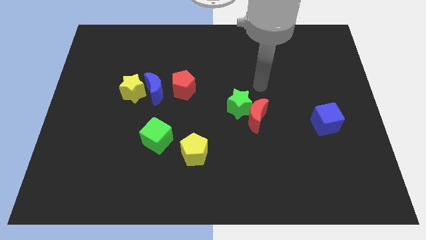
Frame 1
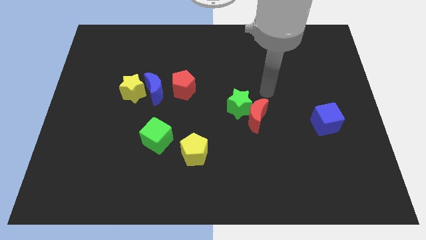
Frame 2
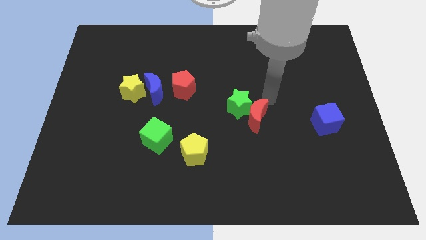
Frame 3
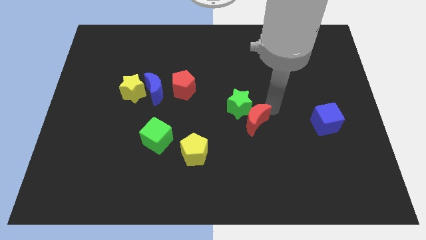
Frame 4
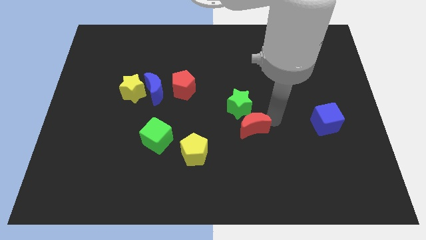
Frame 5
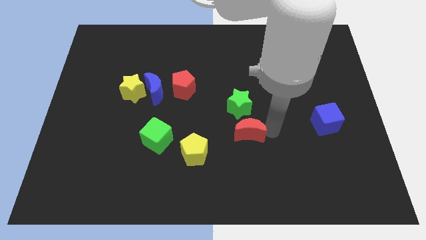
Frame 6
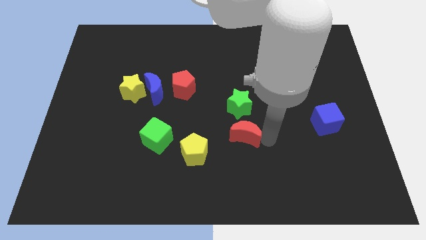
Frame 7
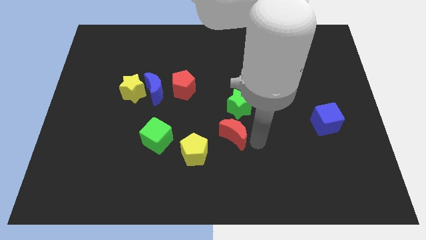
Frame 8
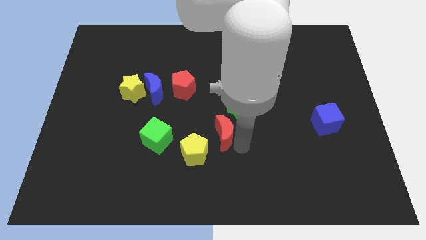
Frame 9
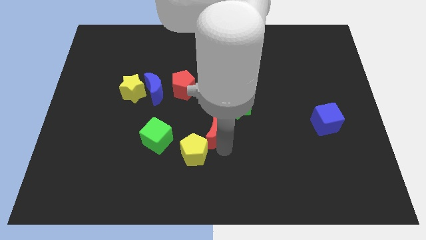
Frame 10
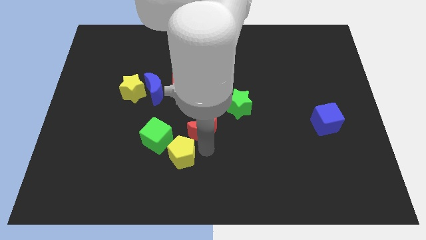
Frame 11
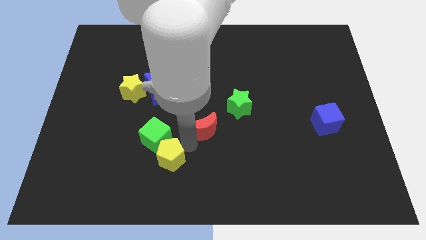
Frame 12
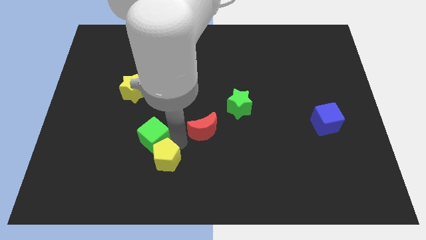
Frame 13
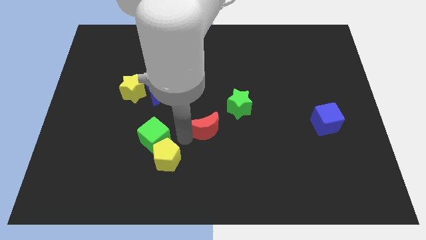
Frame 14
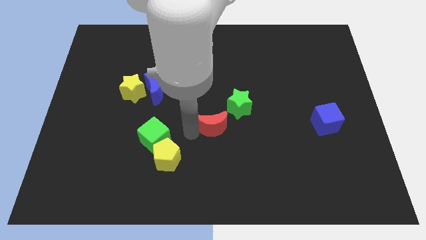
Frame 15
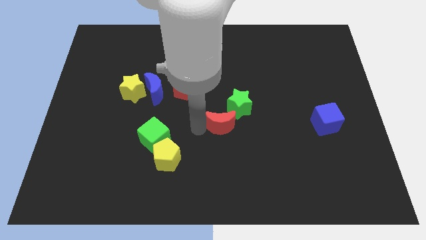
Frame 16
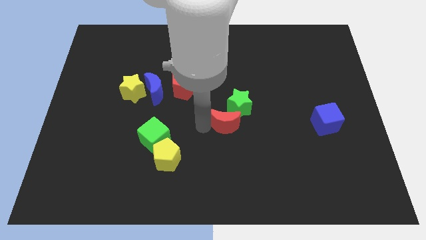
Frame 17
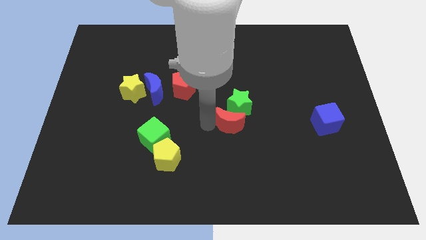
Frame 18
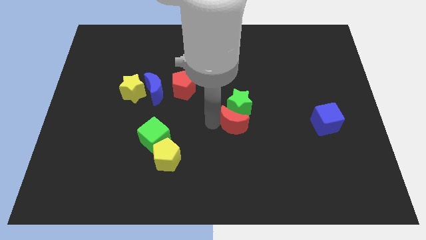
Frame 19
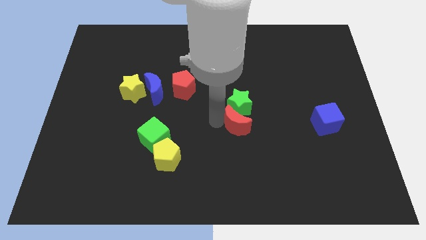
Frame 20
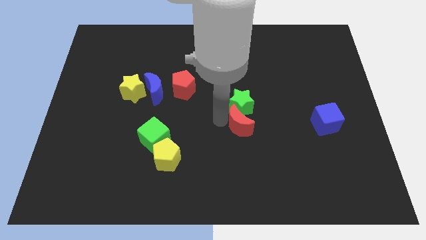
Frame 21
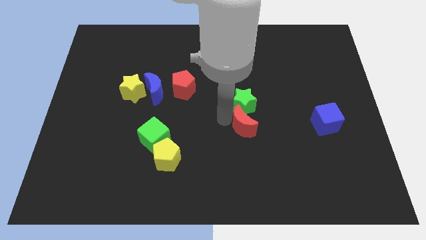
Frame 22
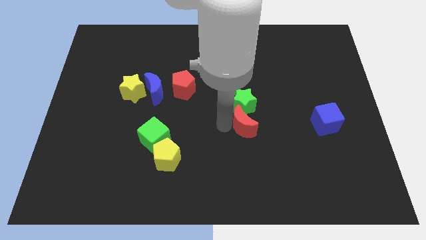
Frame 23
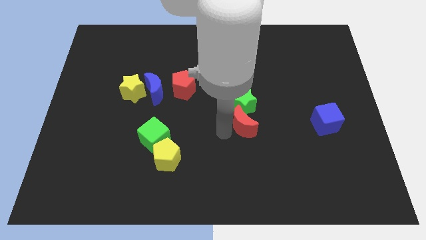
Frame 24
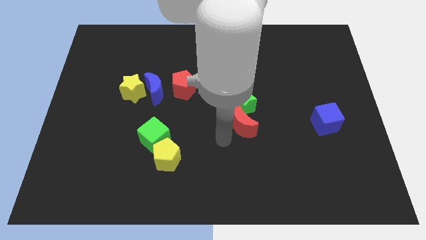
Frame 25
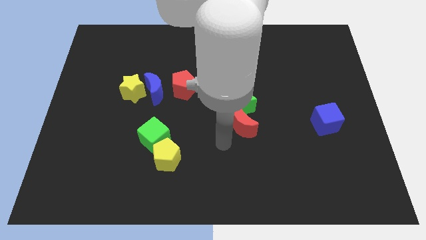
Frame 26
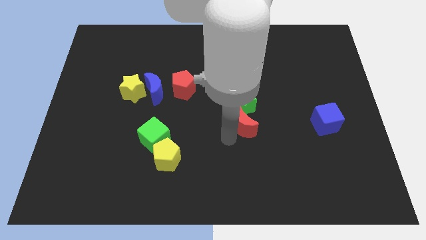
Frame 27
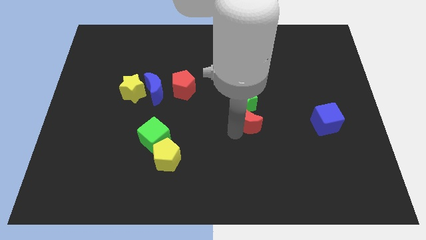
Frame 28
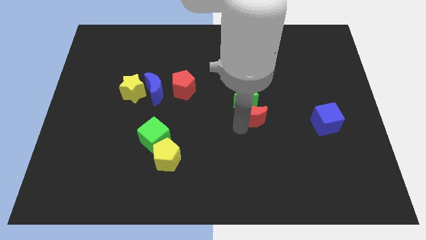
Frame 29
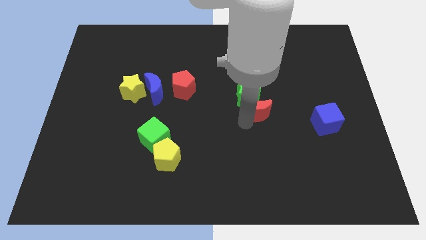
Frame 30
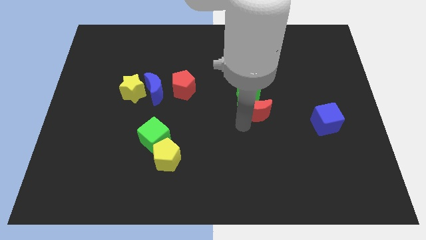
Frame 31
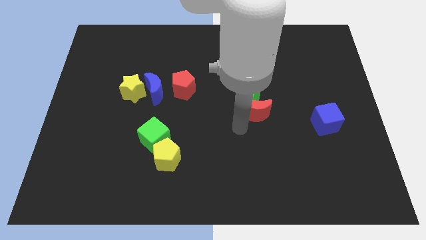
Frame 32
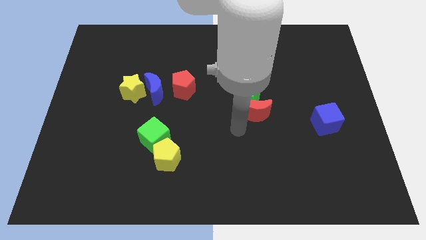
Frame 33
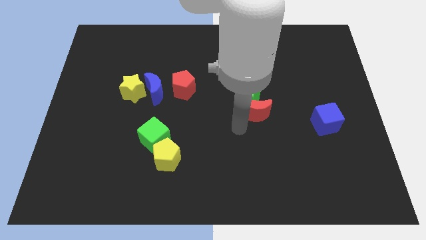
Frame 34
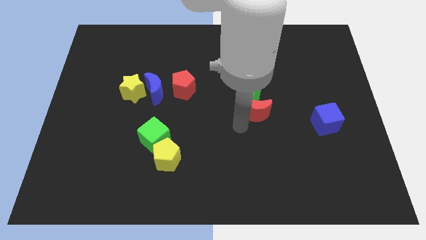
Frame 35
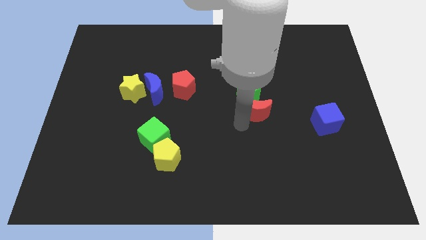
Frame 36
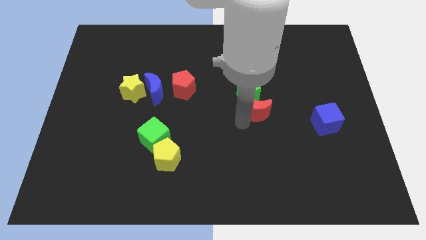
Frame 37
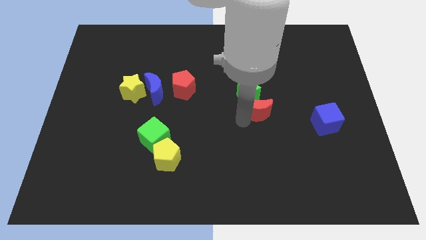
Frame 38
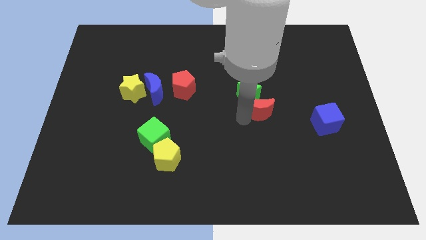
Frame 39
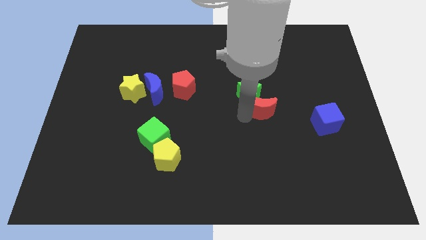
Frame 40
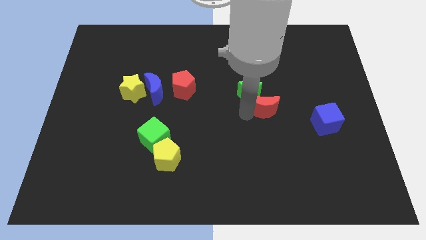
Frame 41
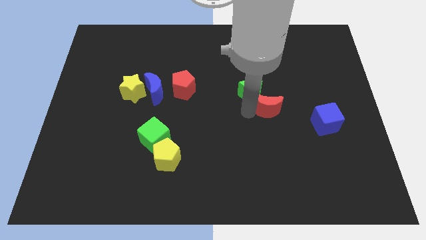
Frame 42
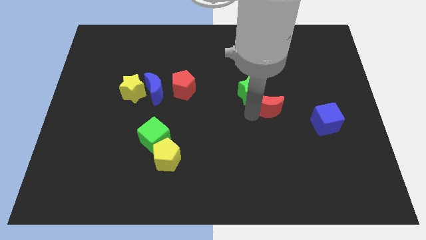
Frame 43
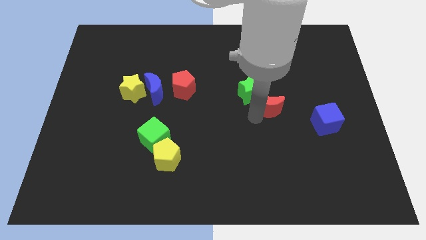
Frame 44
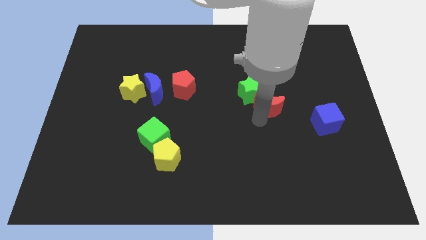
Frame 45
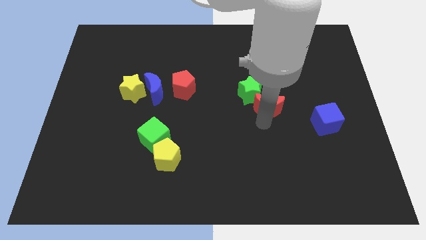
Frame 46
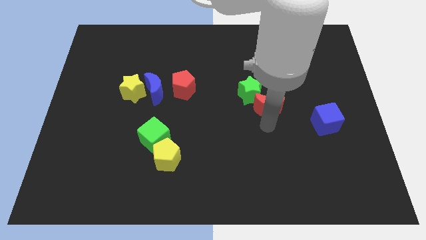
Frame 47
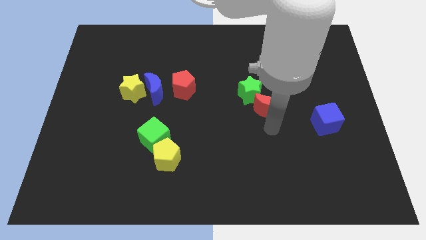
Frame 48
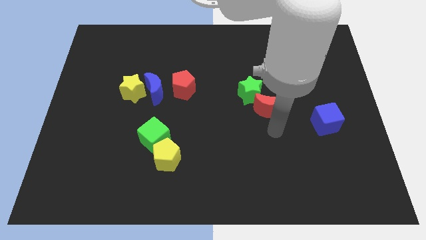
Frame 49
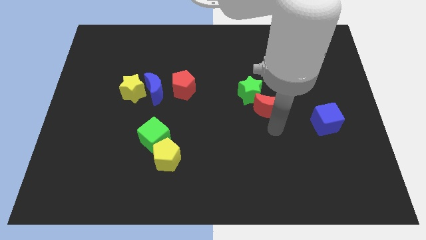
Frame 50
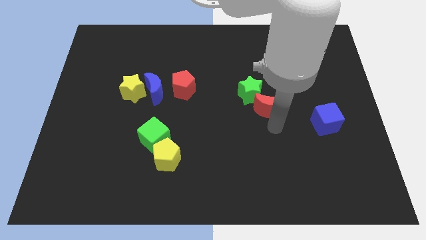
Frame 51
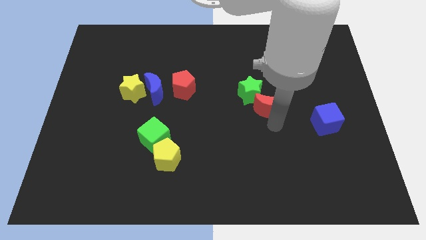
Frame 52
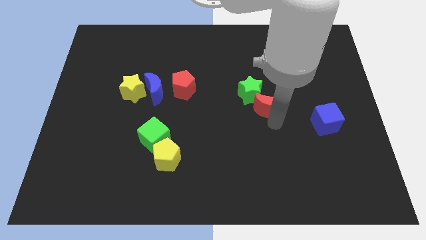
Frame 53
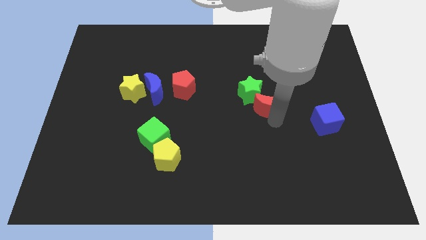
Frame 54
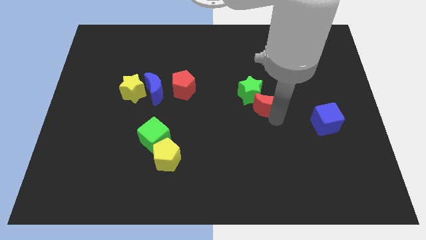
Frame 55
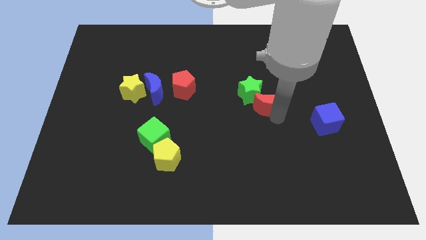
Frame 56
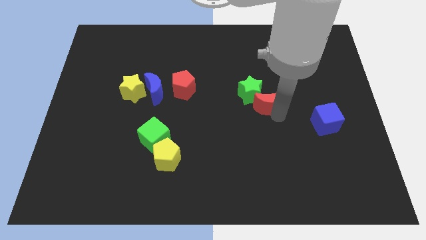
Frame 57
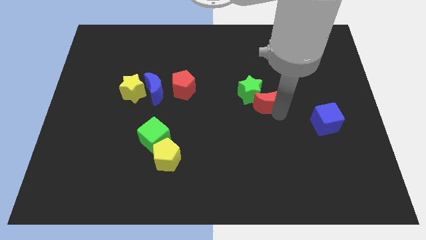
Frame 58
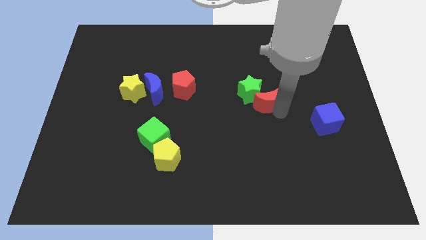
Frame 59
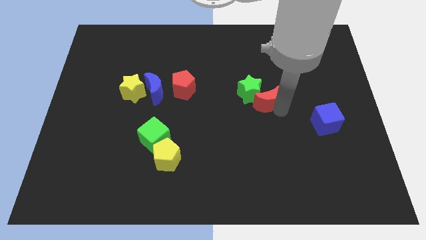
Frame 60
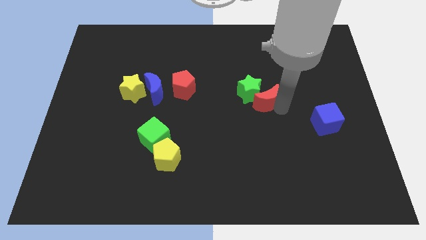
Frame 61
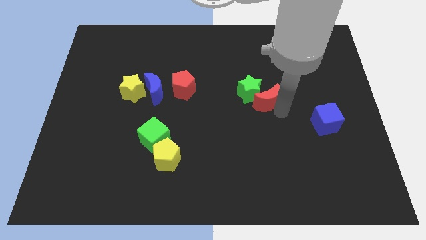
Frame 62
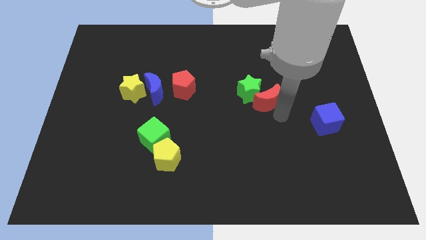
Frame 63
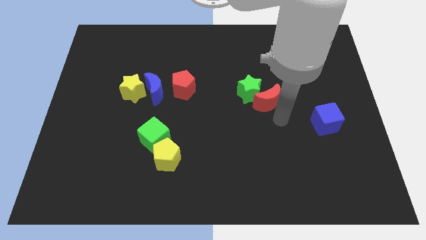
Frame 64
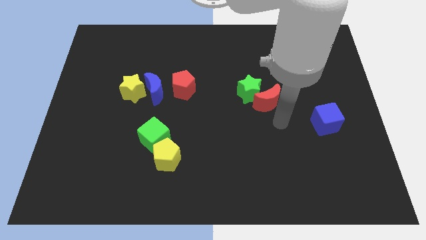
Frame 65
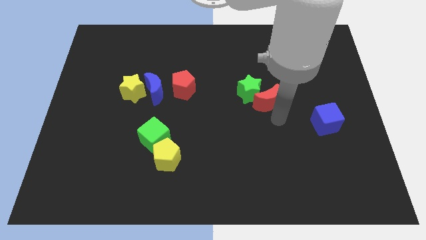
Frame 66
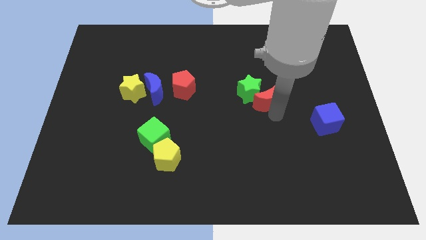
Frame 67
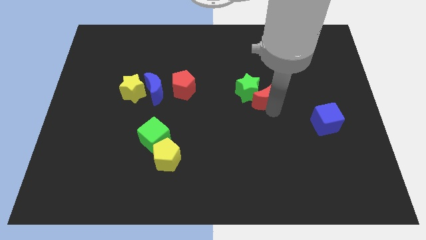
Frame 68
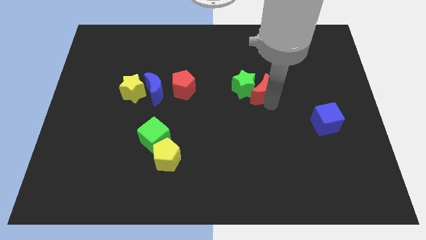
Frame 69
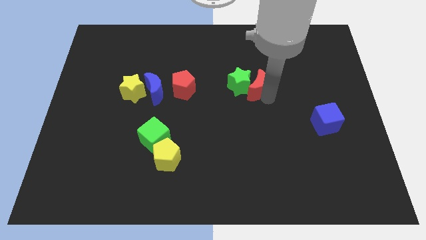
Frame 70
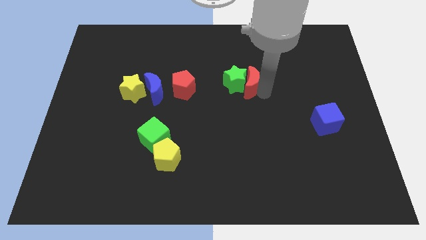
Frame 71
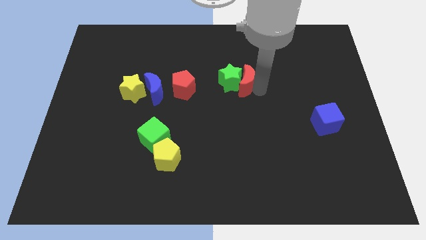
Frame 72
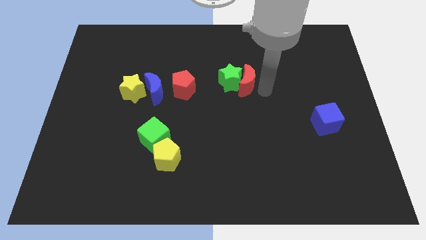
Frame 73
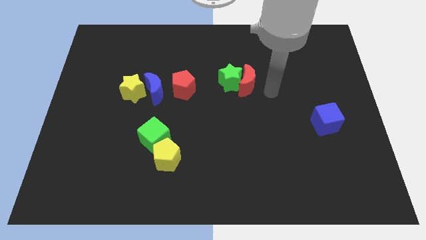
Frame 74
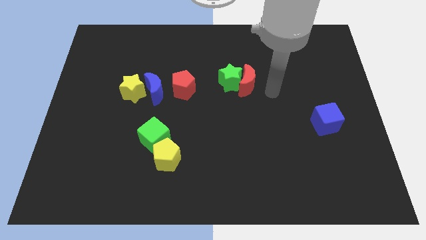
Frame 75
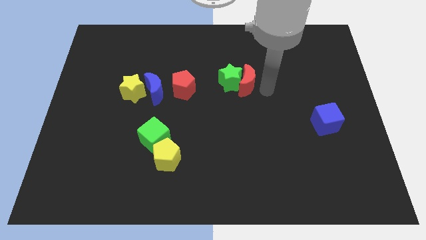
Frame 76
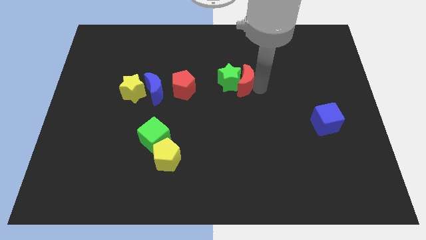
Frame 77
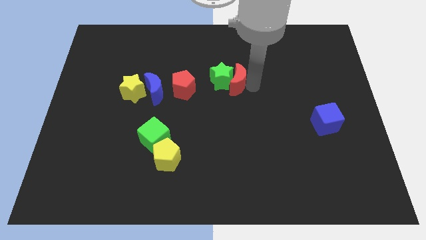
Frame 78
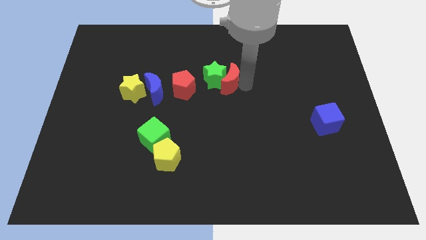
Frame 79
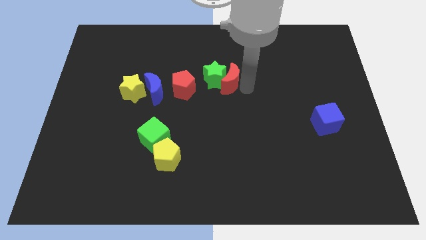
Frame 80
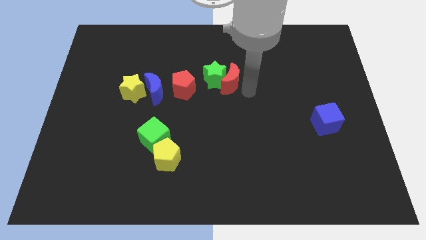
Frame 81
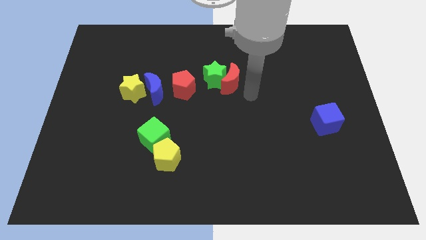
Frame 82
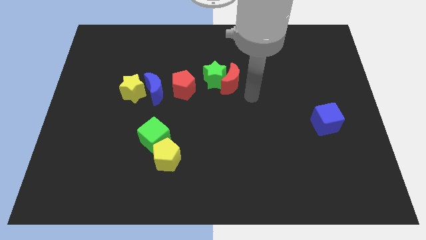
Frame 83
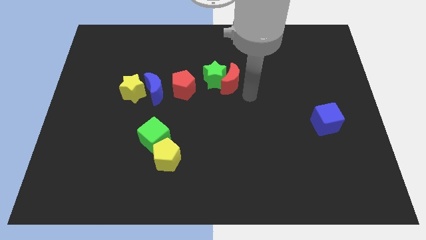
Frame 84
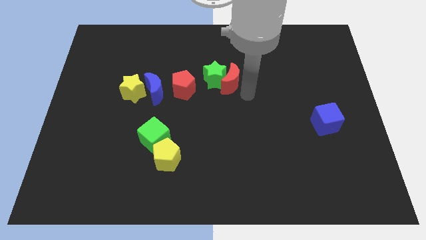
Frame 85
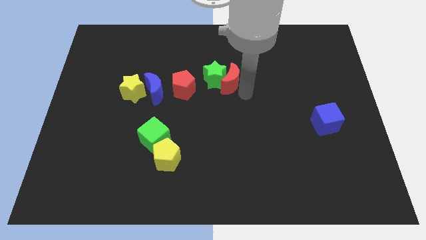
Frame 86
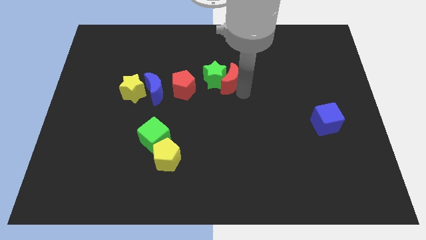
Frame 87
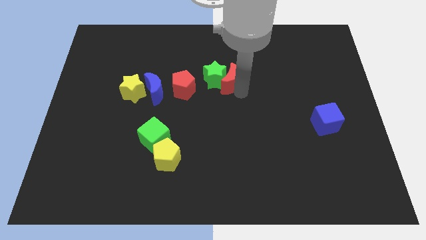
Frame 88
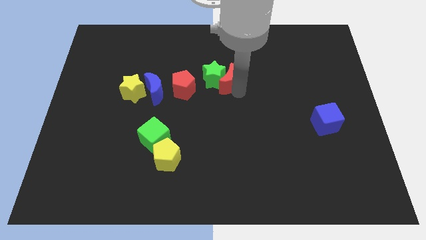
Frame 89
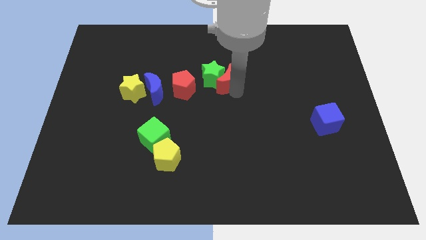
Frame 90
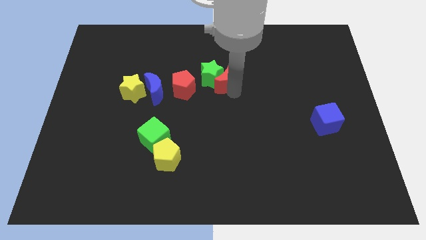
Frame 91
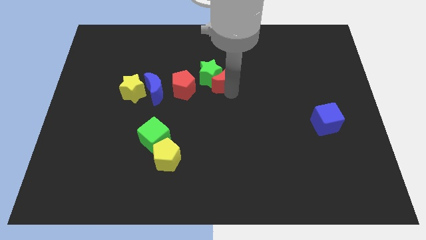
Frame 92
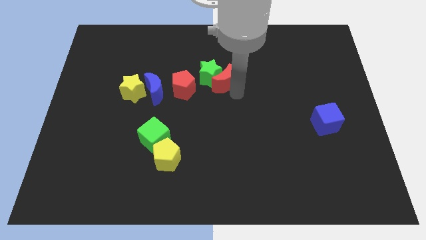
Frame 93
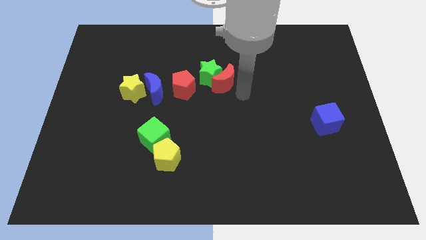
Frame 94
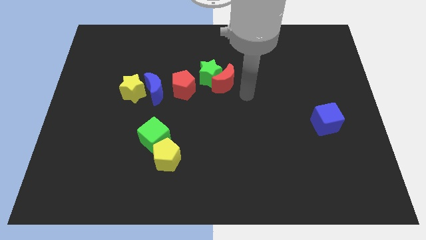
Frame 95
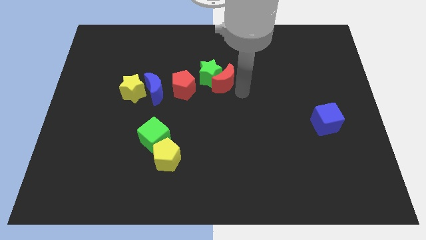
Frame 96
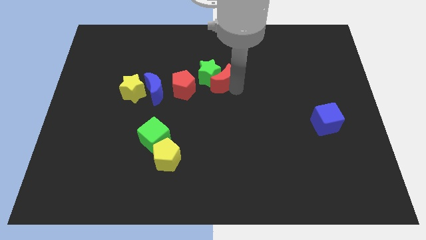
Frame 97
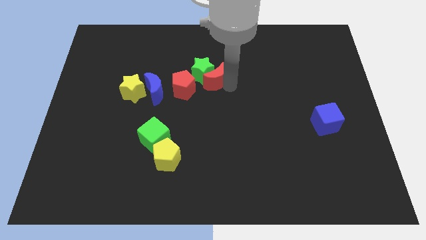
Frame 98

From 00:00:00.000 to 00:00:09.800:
move the red moon to the top right of the red pentagon
